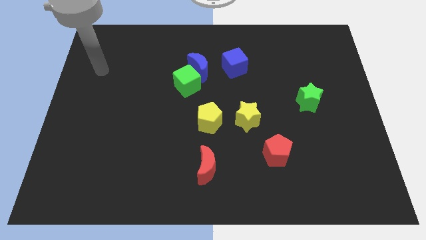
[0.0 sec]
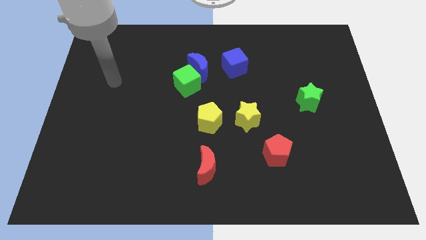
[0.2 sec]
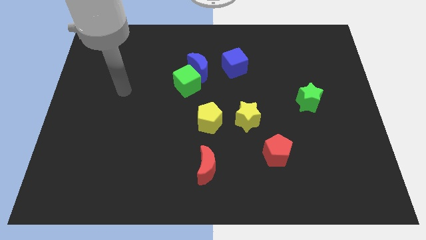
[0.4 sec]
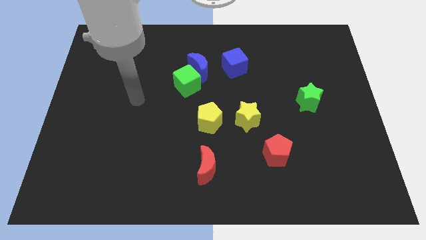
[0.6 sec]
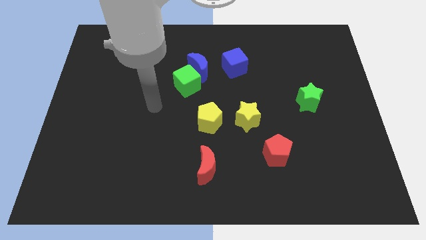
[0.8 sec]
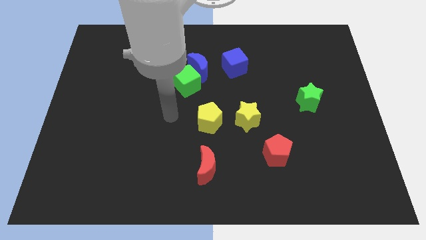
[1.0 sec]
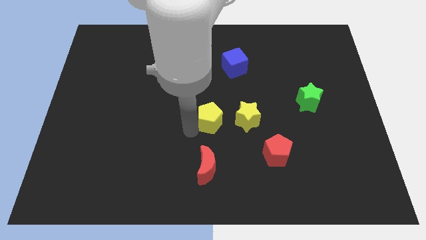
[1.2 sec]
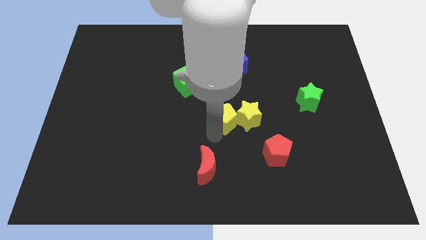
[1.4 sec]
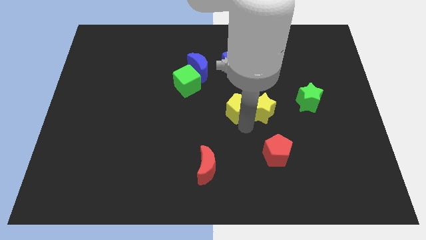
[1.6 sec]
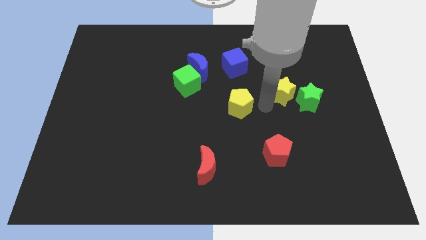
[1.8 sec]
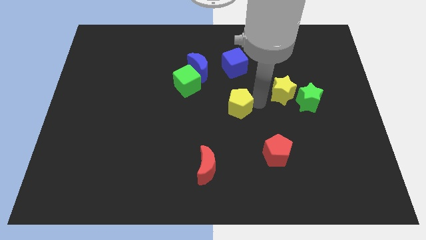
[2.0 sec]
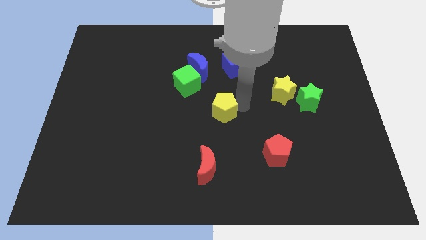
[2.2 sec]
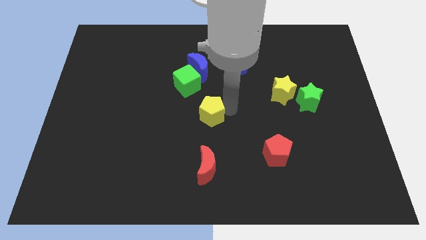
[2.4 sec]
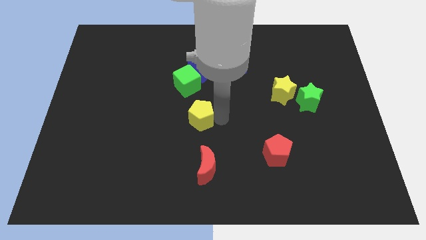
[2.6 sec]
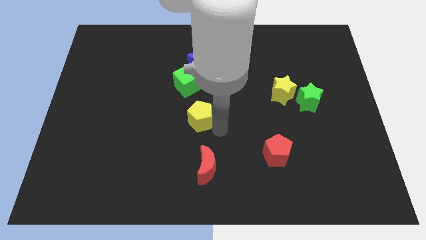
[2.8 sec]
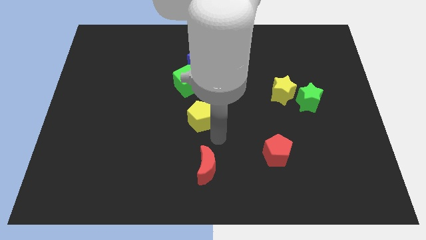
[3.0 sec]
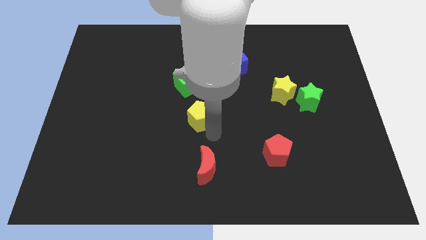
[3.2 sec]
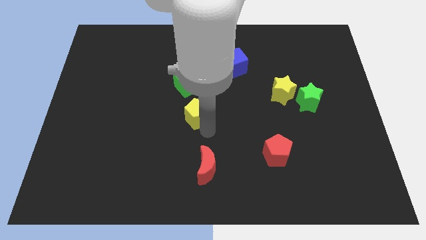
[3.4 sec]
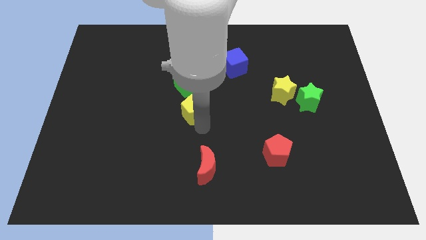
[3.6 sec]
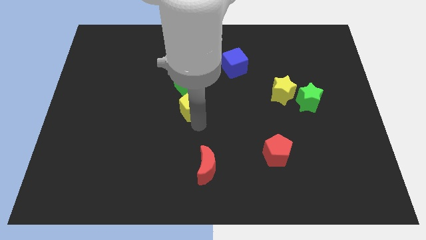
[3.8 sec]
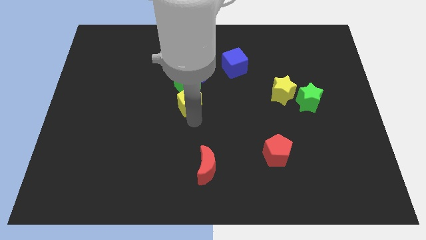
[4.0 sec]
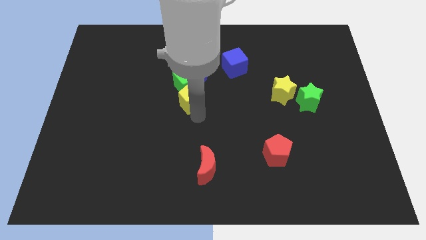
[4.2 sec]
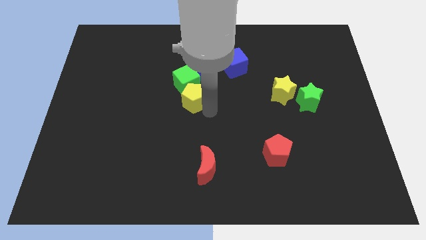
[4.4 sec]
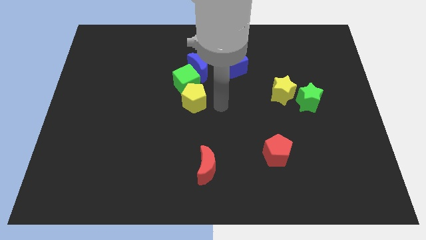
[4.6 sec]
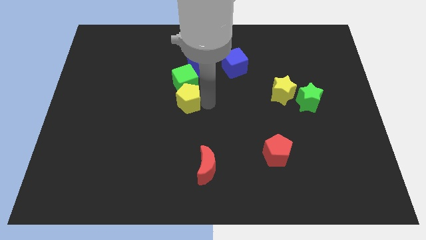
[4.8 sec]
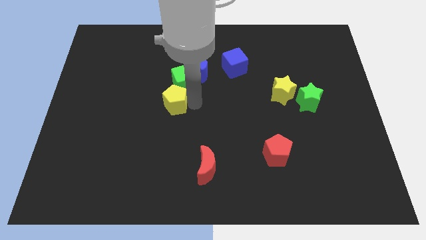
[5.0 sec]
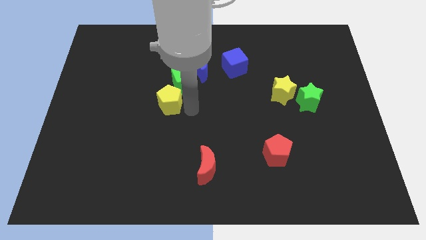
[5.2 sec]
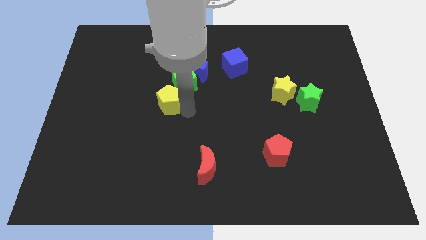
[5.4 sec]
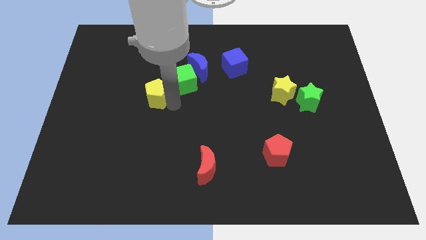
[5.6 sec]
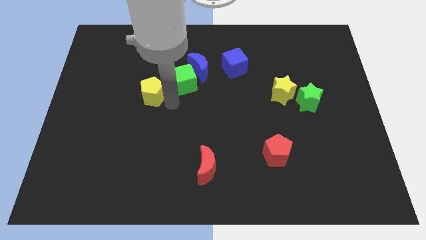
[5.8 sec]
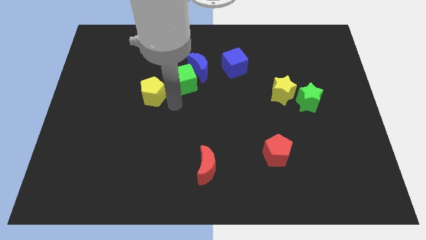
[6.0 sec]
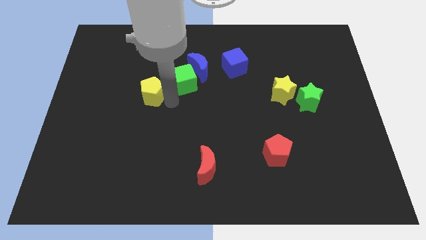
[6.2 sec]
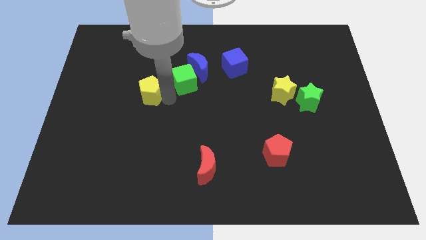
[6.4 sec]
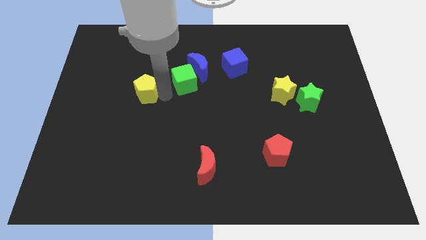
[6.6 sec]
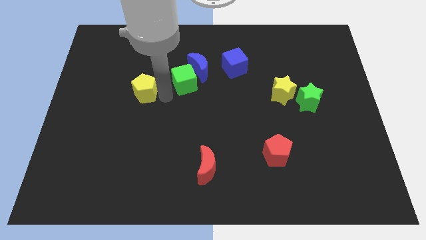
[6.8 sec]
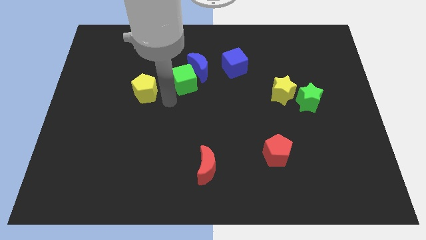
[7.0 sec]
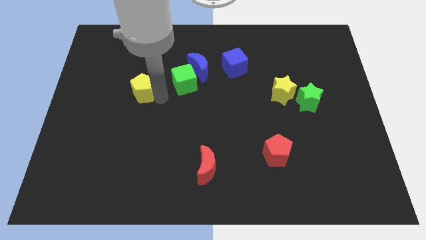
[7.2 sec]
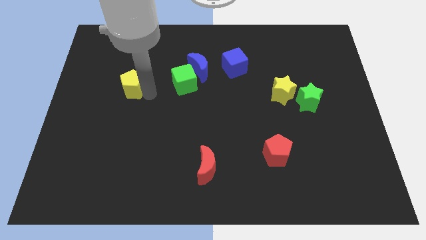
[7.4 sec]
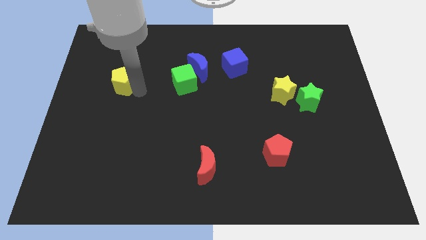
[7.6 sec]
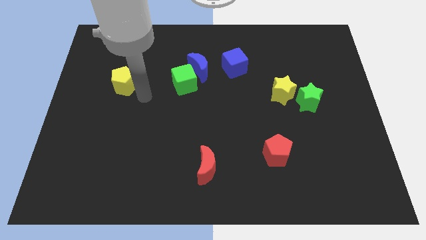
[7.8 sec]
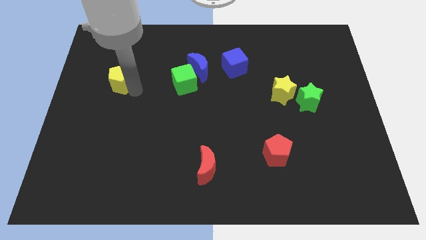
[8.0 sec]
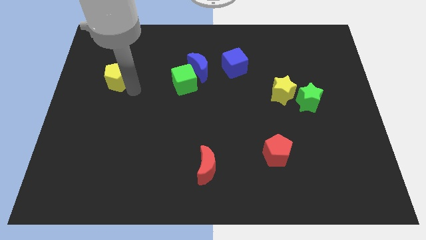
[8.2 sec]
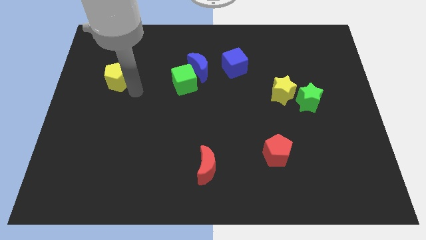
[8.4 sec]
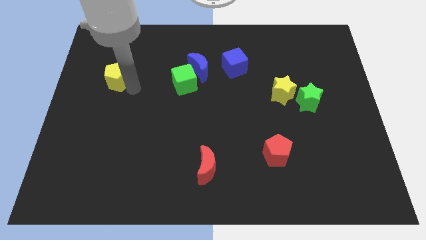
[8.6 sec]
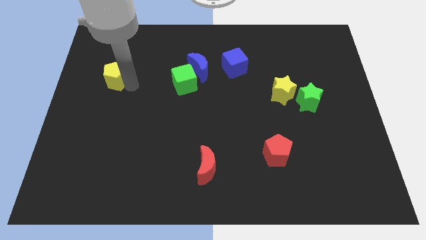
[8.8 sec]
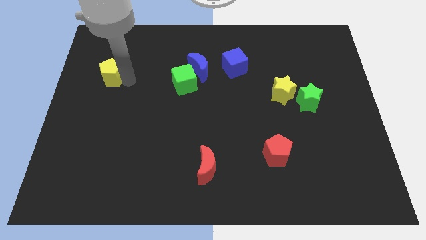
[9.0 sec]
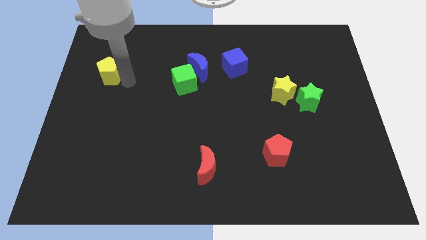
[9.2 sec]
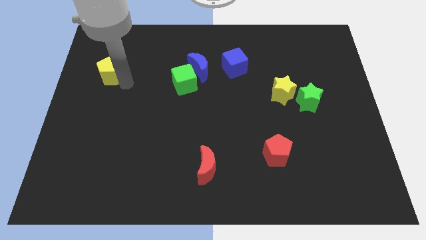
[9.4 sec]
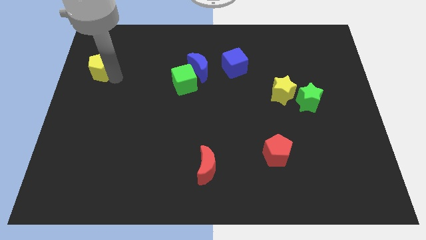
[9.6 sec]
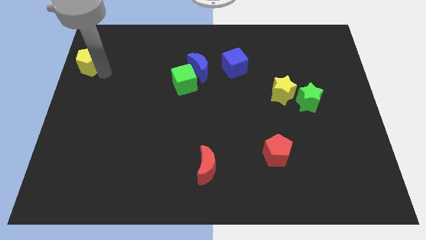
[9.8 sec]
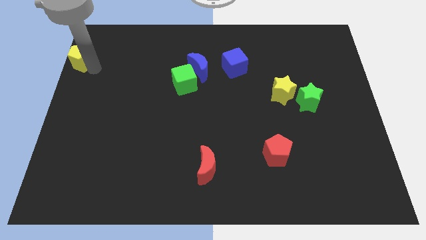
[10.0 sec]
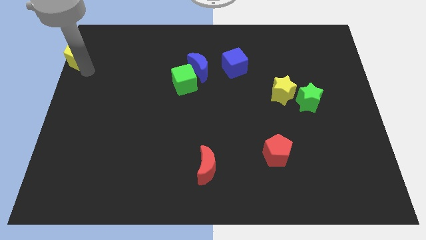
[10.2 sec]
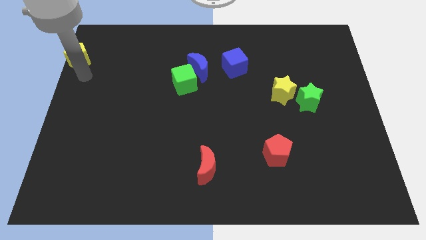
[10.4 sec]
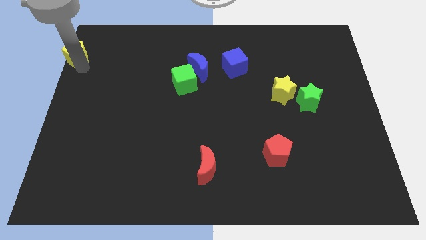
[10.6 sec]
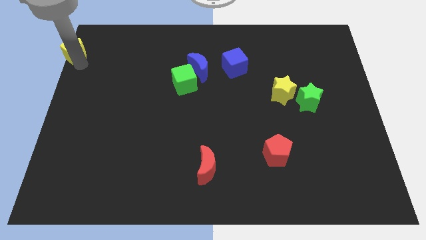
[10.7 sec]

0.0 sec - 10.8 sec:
slide the yellow pentagon to the top left corner

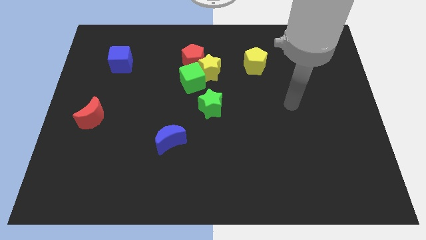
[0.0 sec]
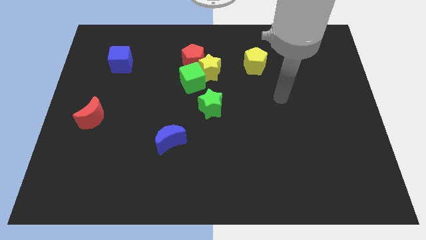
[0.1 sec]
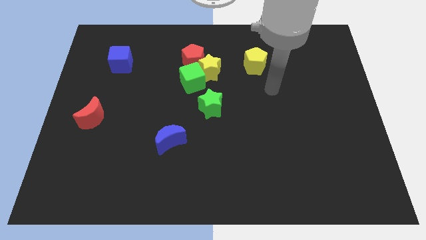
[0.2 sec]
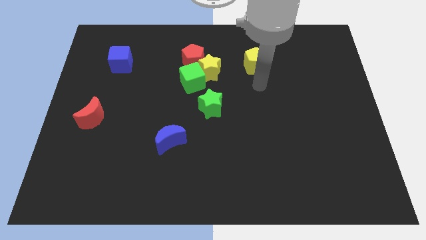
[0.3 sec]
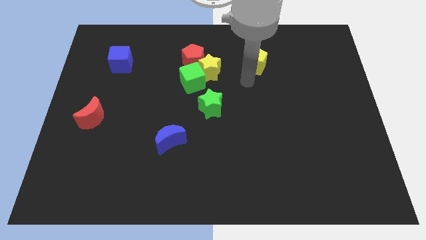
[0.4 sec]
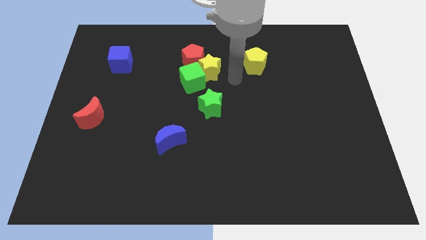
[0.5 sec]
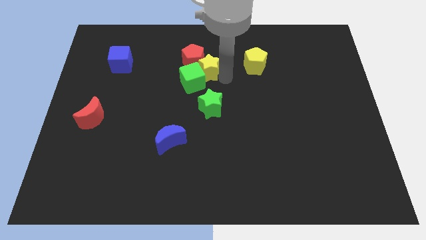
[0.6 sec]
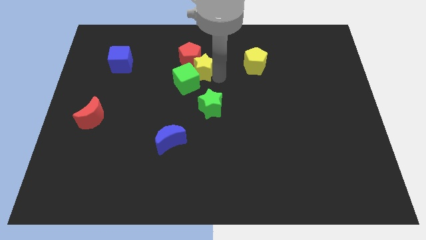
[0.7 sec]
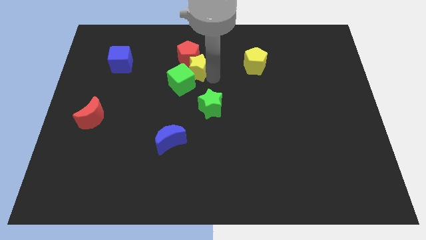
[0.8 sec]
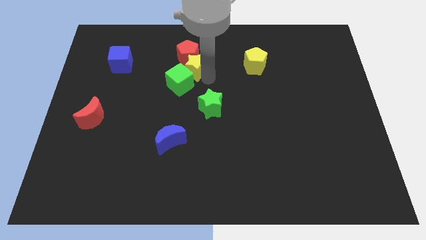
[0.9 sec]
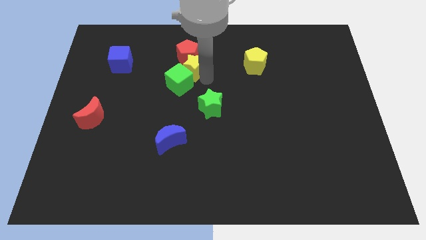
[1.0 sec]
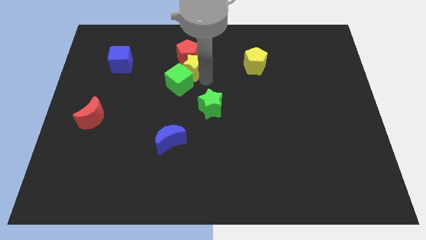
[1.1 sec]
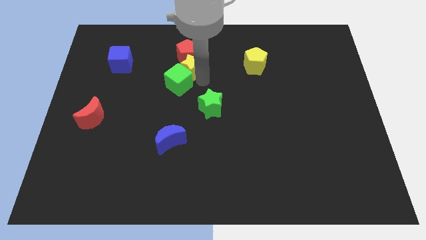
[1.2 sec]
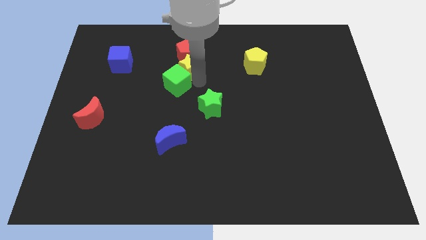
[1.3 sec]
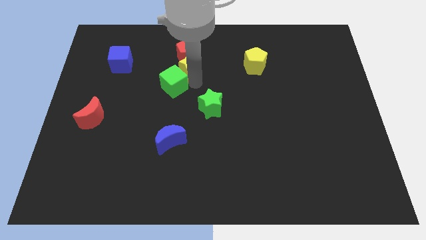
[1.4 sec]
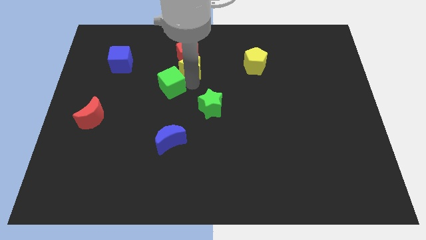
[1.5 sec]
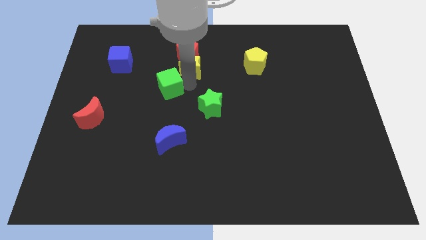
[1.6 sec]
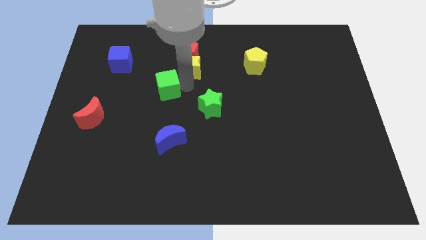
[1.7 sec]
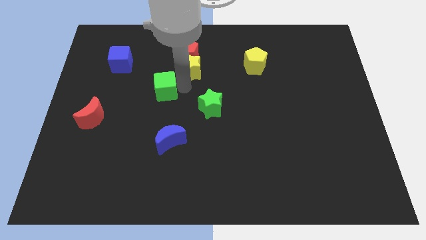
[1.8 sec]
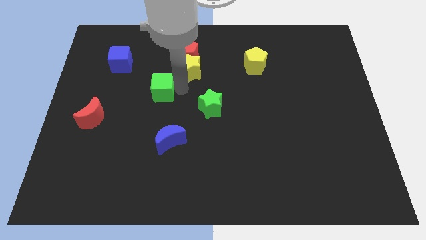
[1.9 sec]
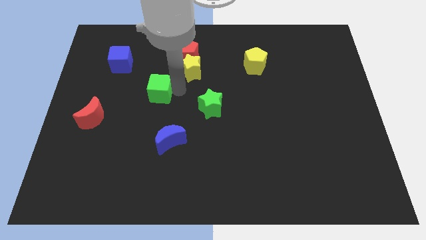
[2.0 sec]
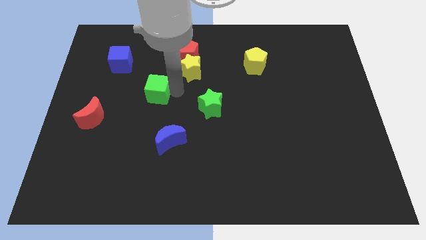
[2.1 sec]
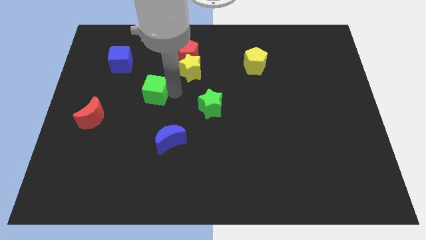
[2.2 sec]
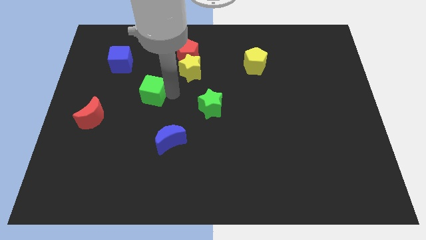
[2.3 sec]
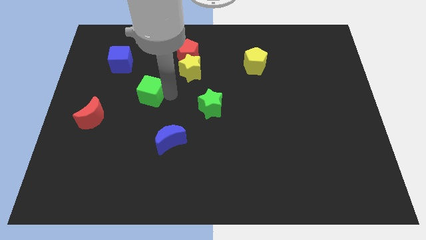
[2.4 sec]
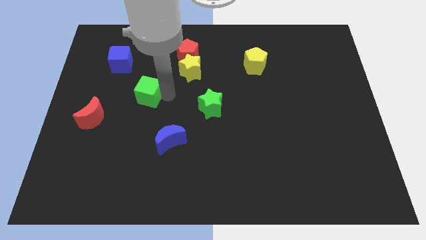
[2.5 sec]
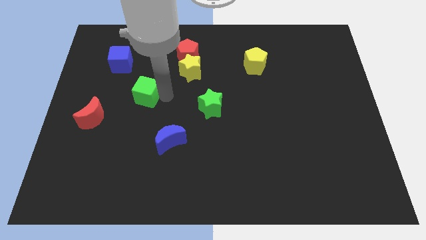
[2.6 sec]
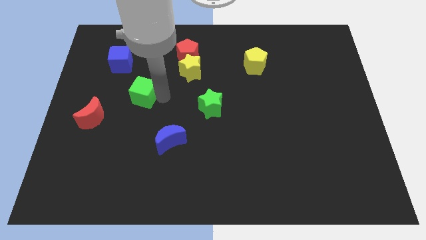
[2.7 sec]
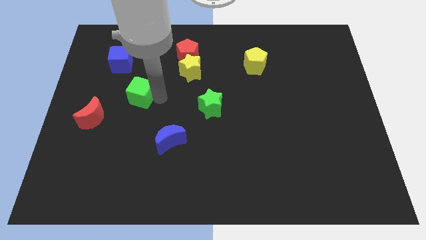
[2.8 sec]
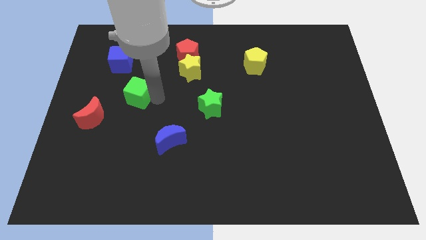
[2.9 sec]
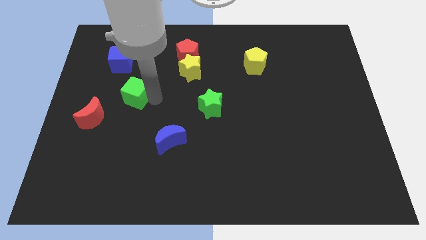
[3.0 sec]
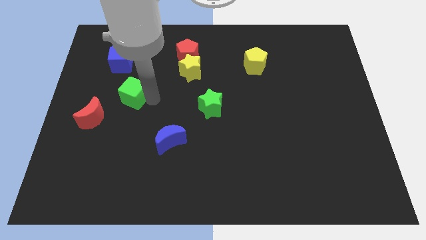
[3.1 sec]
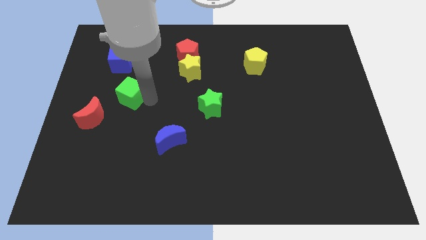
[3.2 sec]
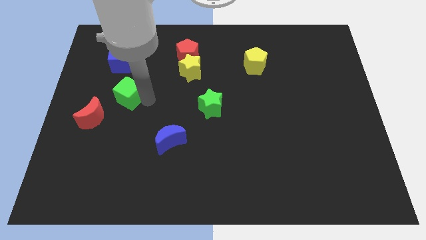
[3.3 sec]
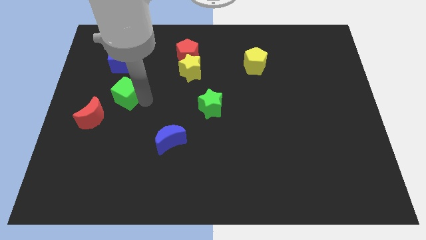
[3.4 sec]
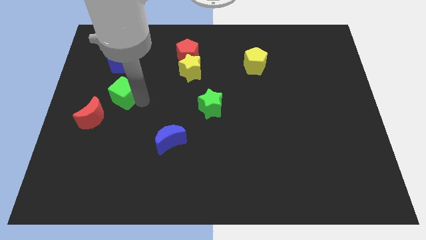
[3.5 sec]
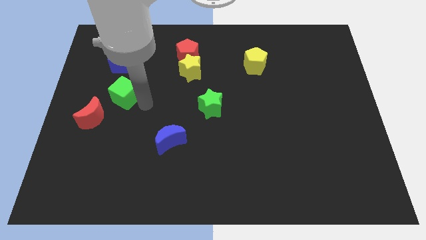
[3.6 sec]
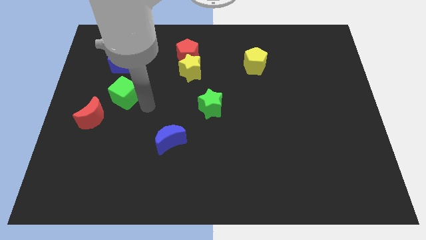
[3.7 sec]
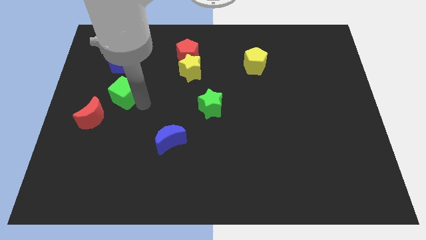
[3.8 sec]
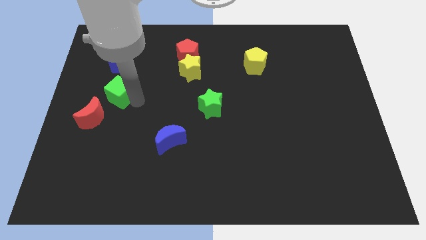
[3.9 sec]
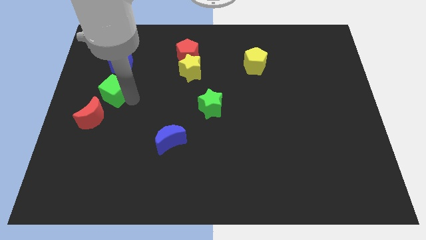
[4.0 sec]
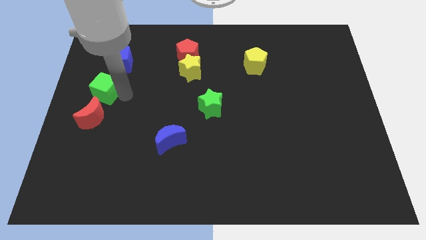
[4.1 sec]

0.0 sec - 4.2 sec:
push the green cube to the center left
